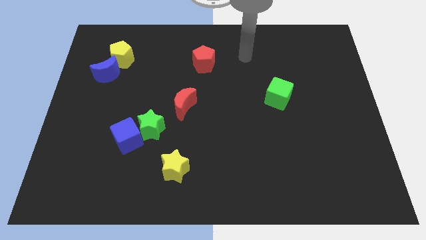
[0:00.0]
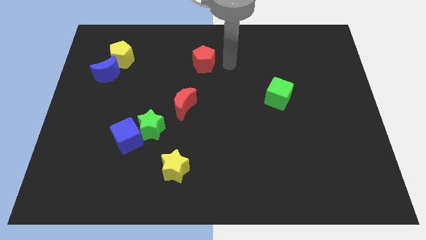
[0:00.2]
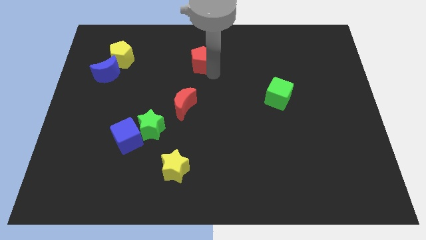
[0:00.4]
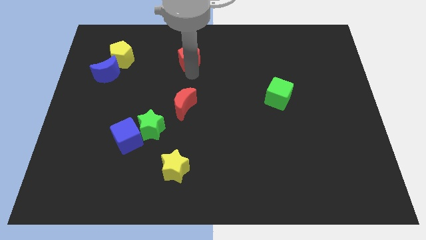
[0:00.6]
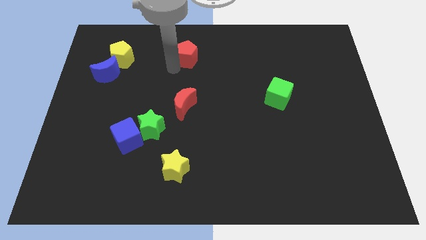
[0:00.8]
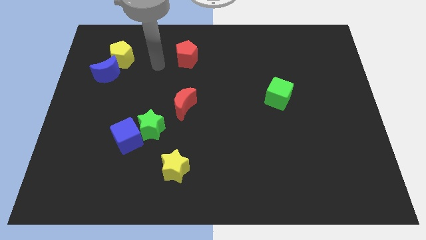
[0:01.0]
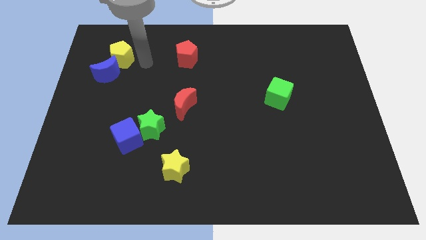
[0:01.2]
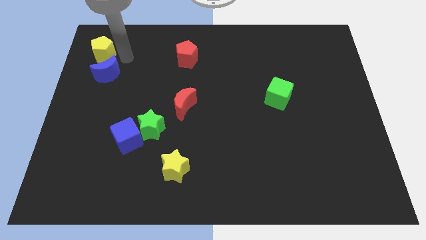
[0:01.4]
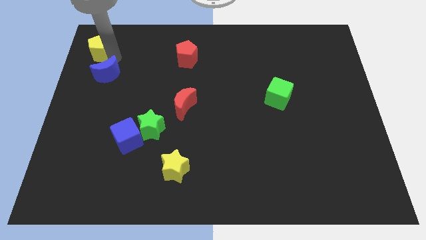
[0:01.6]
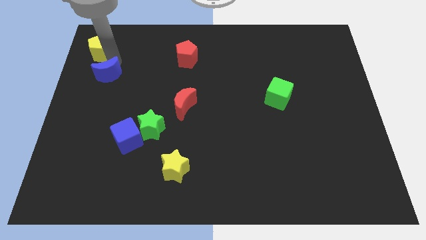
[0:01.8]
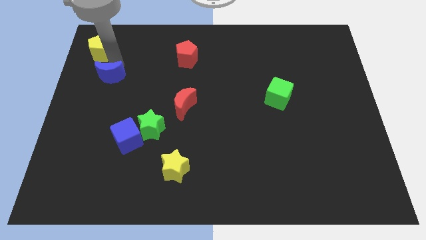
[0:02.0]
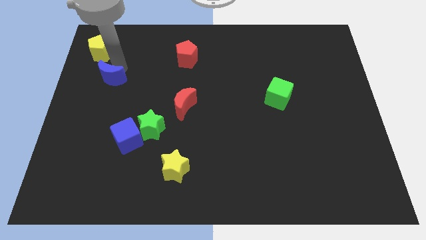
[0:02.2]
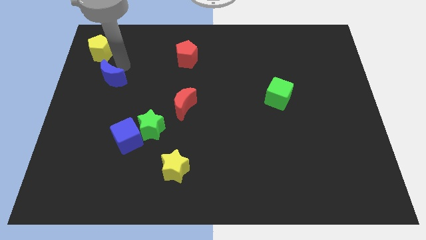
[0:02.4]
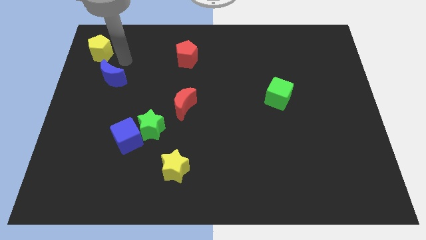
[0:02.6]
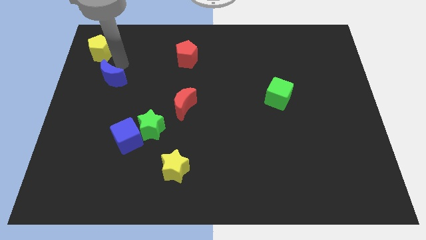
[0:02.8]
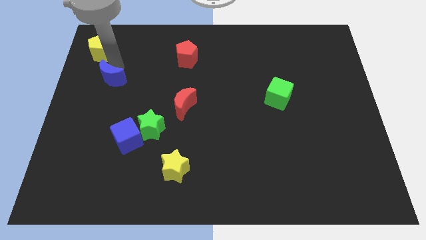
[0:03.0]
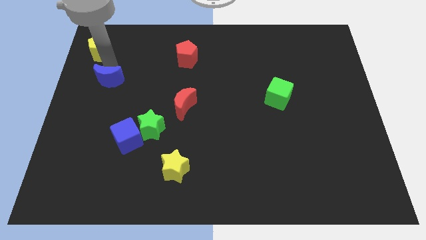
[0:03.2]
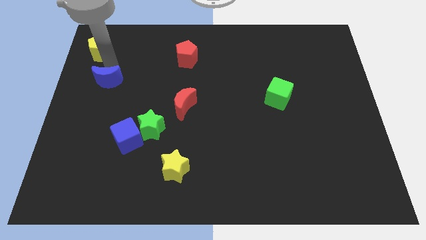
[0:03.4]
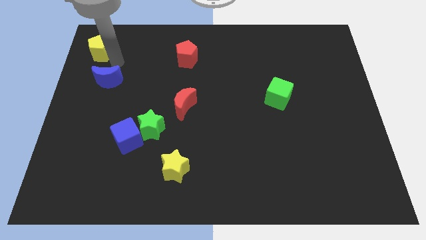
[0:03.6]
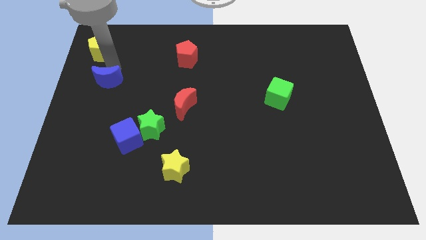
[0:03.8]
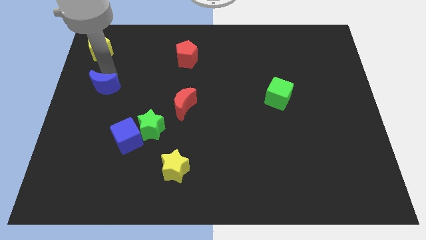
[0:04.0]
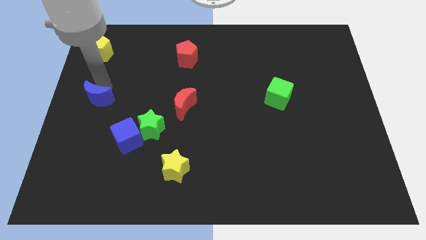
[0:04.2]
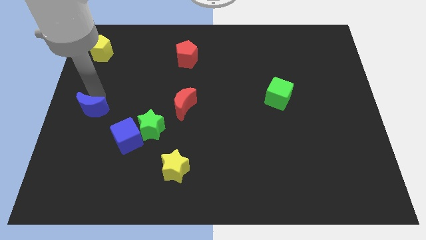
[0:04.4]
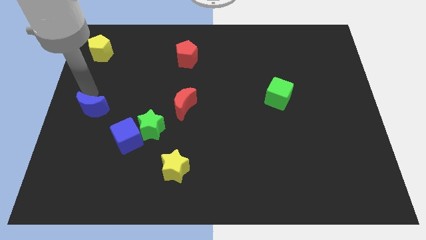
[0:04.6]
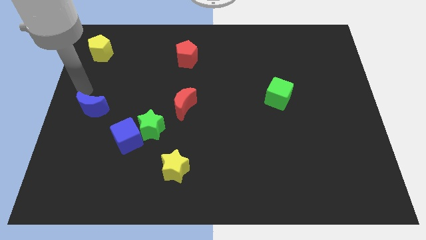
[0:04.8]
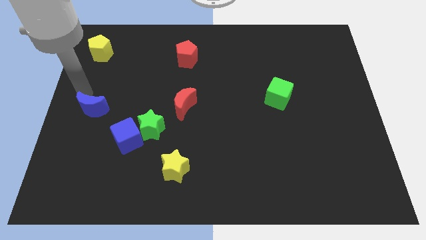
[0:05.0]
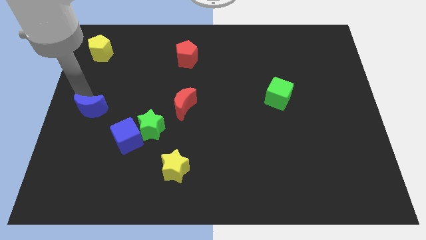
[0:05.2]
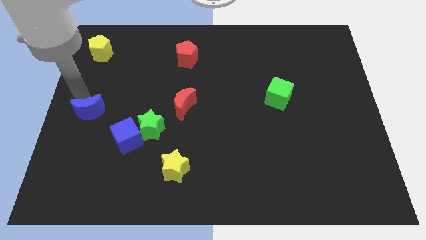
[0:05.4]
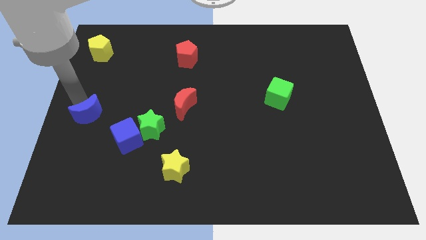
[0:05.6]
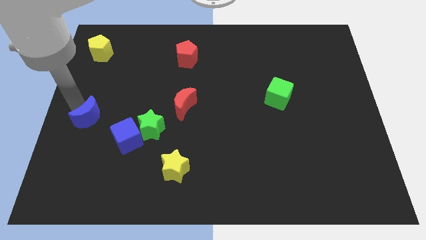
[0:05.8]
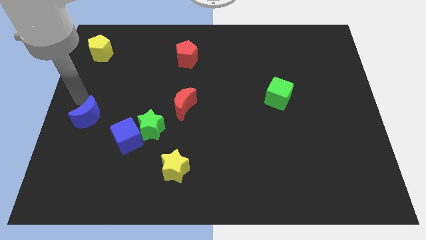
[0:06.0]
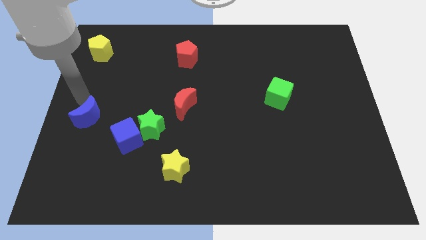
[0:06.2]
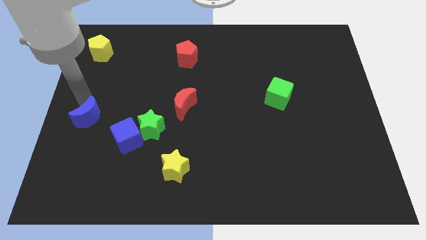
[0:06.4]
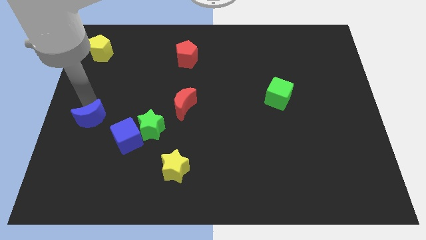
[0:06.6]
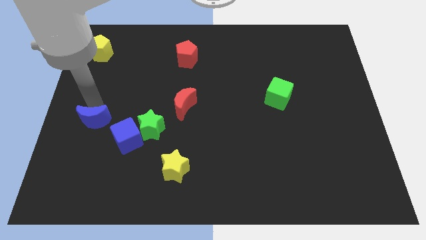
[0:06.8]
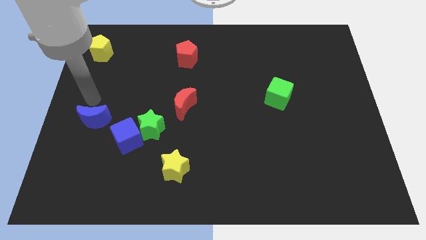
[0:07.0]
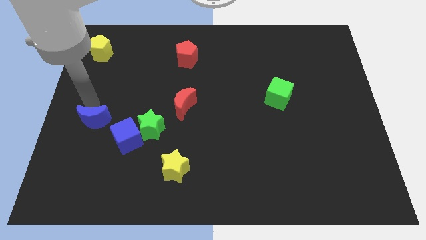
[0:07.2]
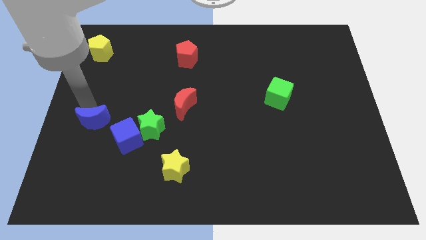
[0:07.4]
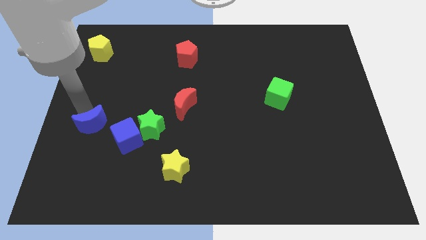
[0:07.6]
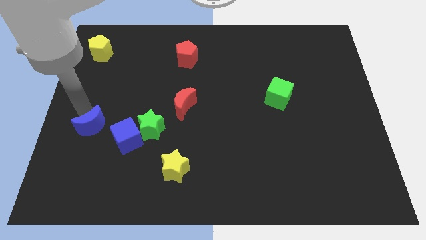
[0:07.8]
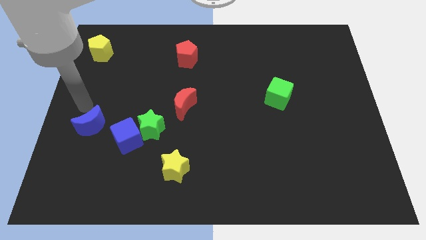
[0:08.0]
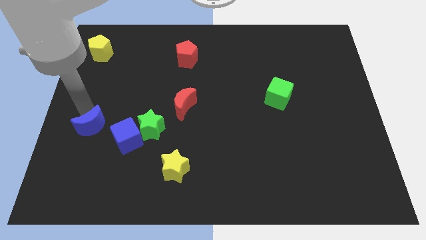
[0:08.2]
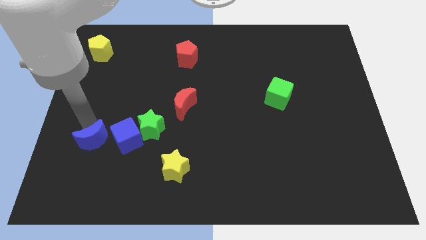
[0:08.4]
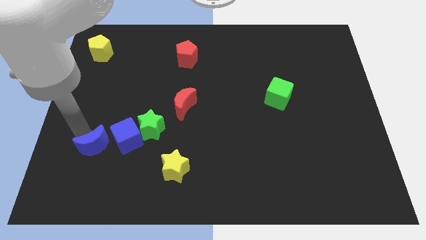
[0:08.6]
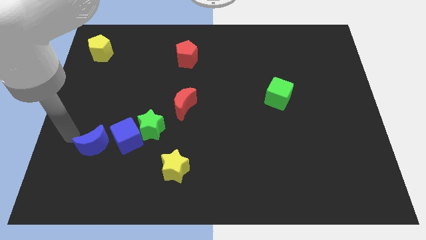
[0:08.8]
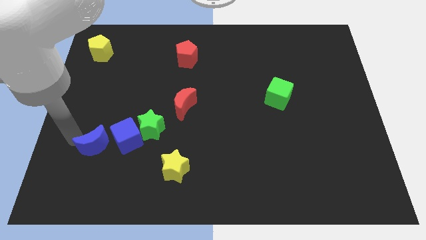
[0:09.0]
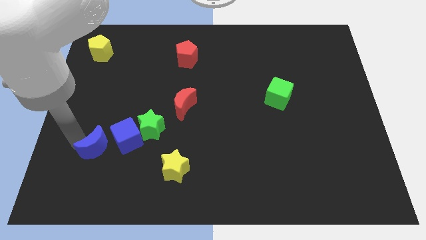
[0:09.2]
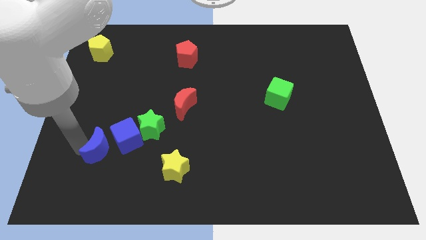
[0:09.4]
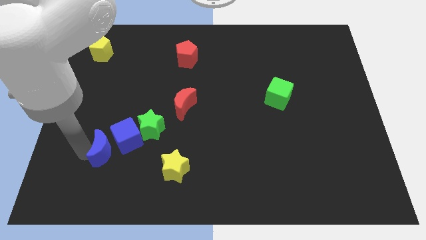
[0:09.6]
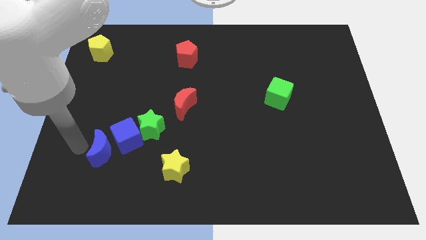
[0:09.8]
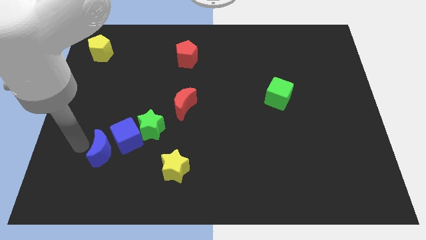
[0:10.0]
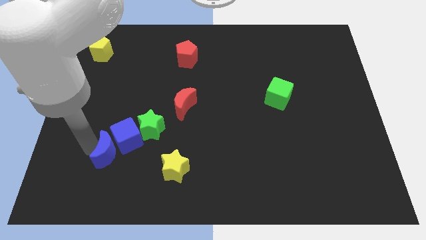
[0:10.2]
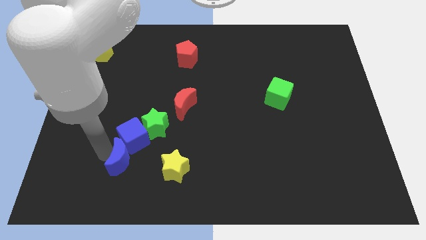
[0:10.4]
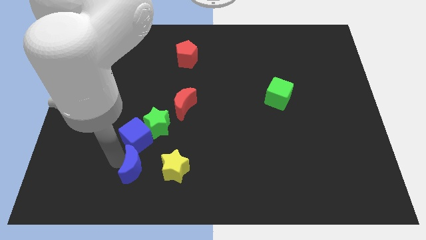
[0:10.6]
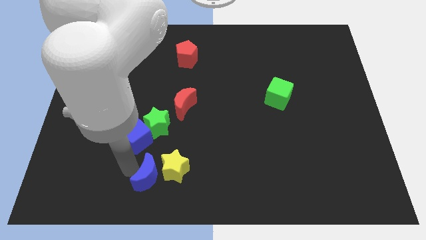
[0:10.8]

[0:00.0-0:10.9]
push the blue moon close to the yellow star

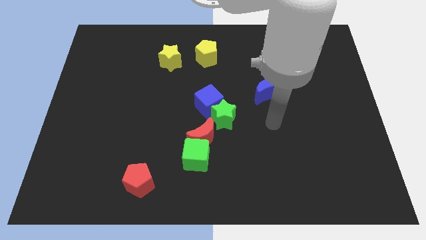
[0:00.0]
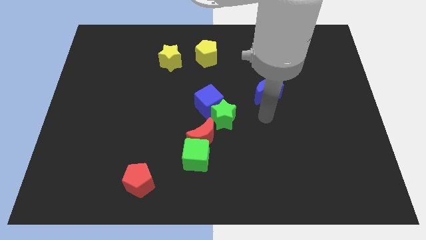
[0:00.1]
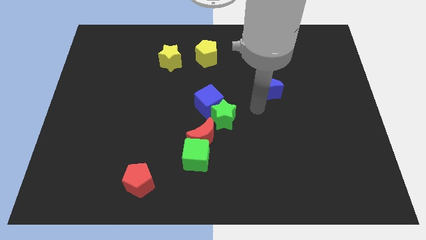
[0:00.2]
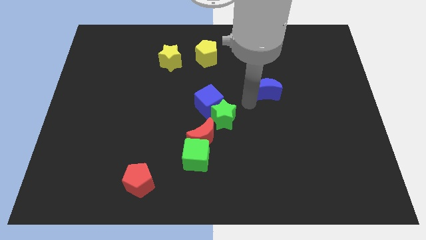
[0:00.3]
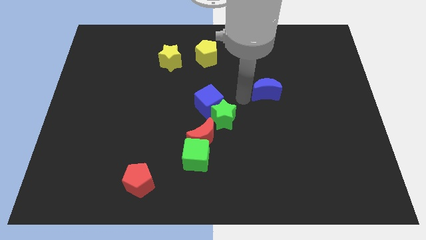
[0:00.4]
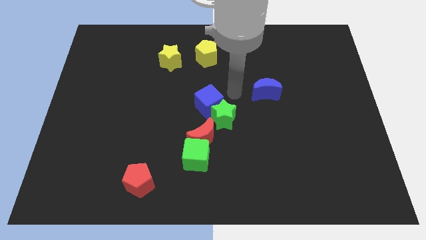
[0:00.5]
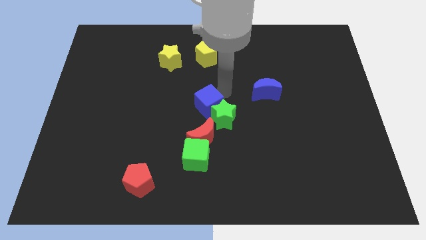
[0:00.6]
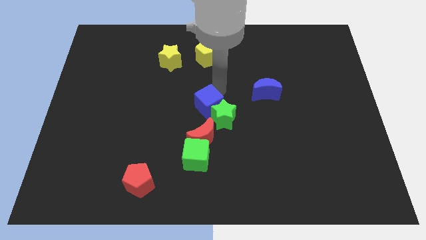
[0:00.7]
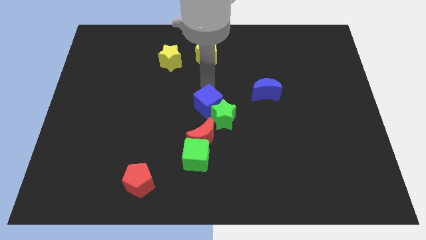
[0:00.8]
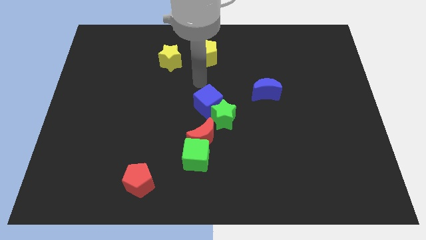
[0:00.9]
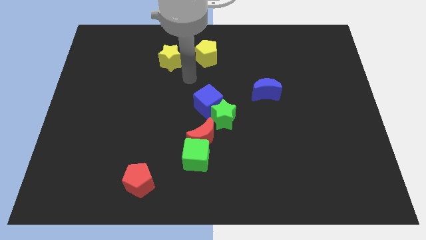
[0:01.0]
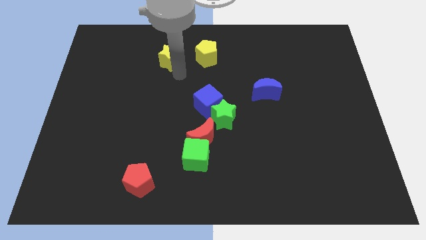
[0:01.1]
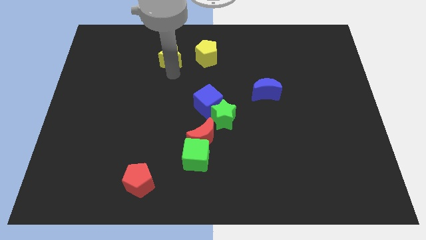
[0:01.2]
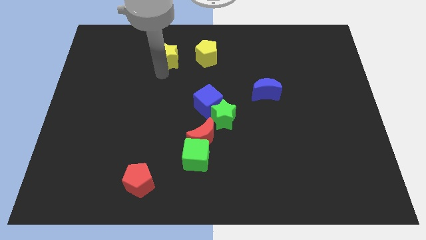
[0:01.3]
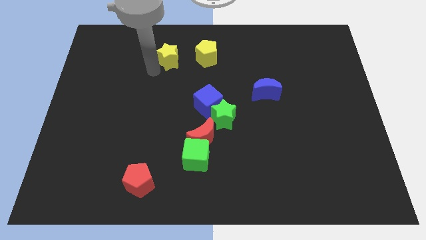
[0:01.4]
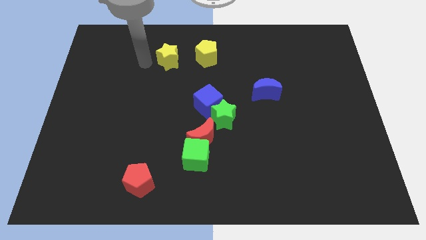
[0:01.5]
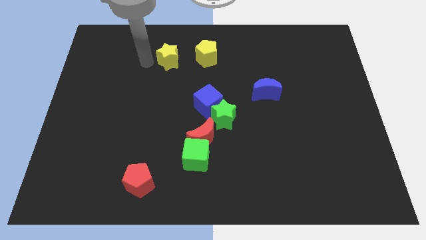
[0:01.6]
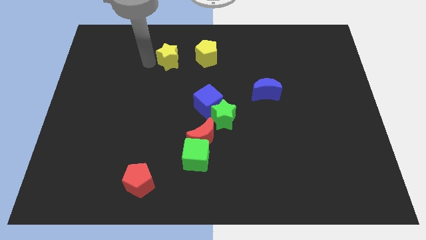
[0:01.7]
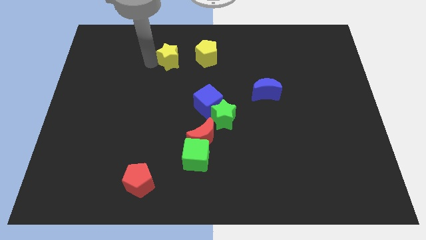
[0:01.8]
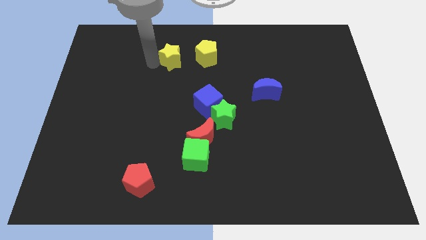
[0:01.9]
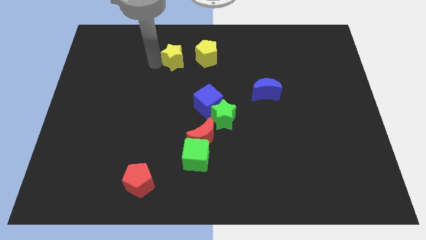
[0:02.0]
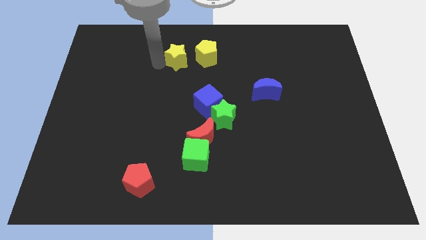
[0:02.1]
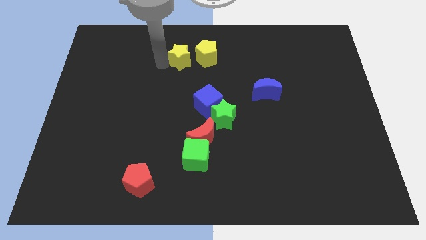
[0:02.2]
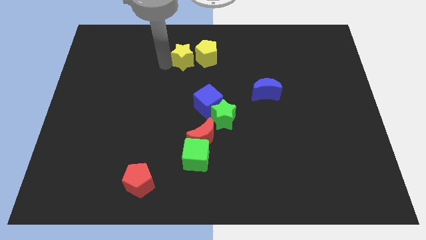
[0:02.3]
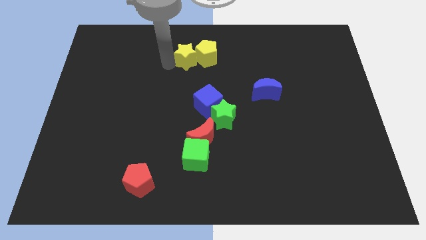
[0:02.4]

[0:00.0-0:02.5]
move the yellow star close to the yellow pentagon
